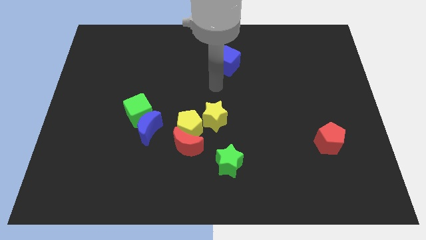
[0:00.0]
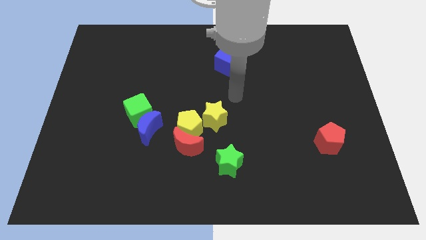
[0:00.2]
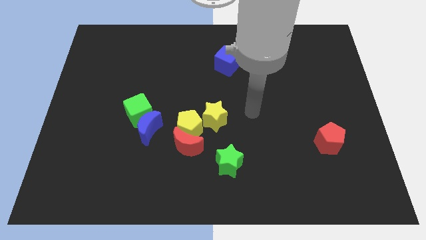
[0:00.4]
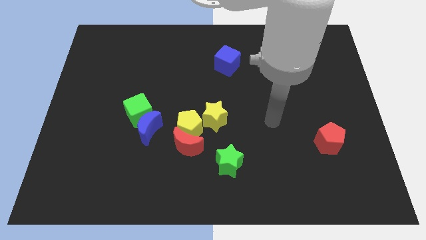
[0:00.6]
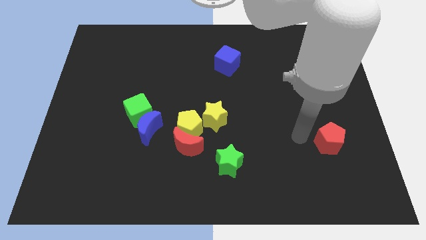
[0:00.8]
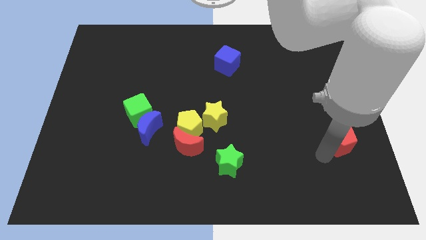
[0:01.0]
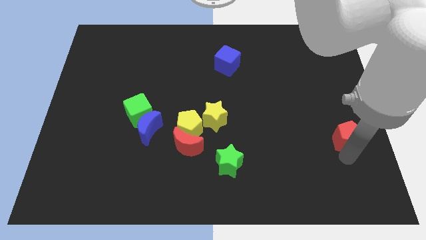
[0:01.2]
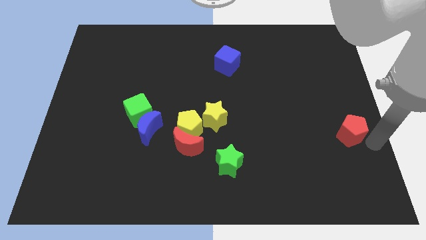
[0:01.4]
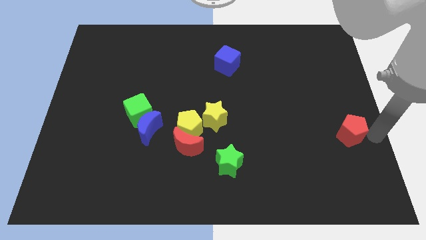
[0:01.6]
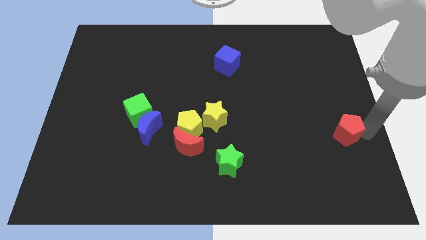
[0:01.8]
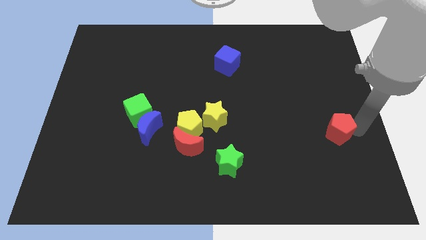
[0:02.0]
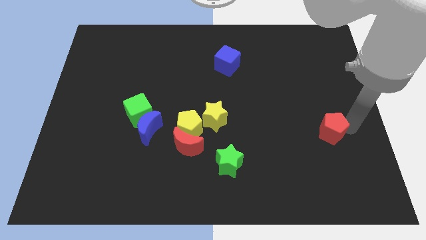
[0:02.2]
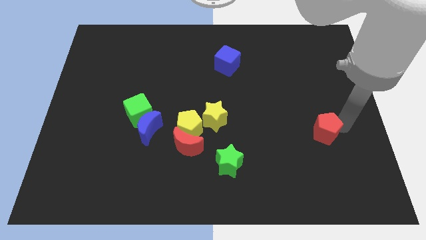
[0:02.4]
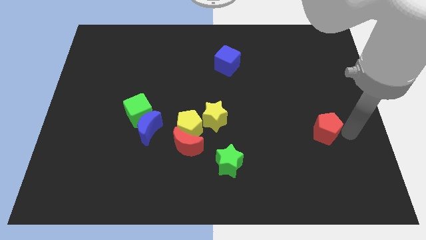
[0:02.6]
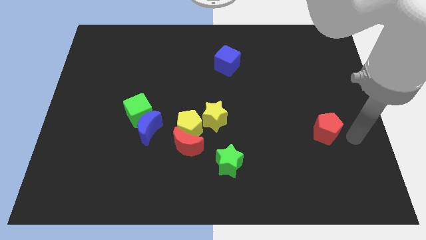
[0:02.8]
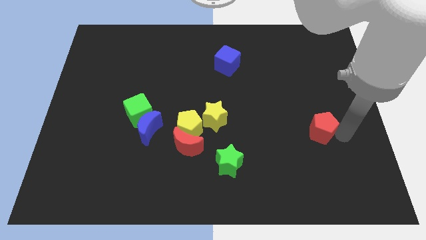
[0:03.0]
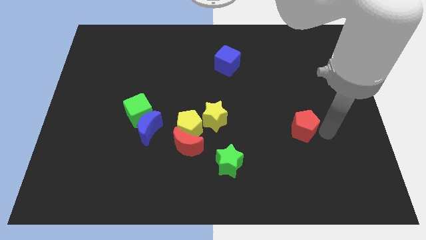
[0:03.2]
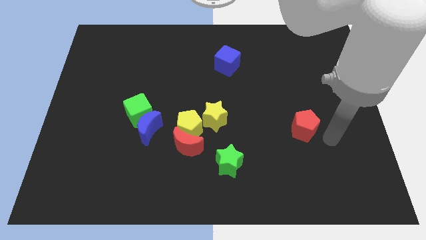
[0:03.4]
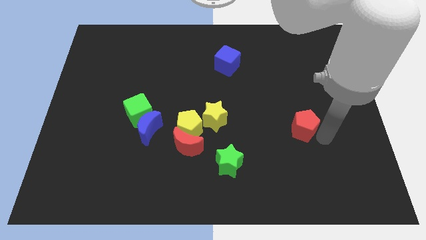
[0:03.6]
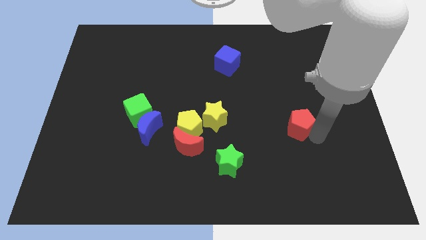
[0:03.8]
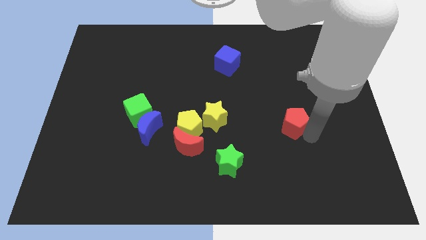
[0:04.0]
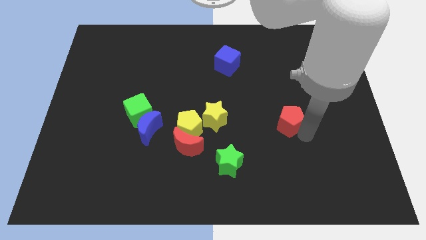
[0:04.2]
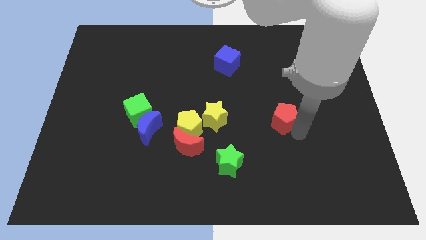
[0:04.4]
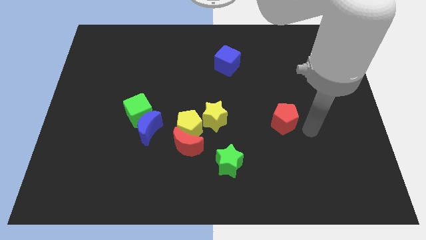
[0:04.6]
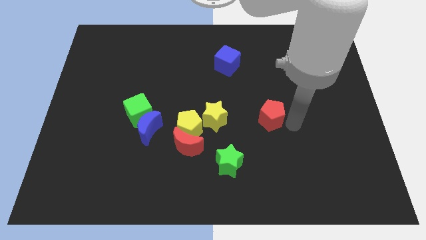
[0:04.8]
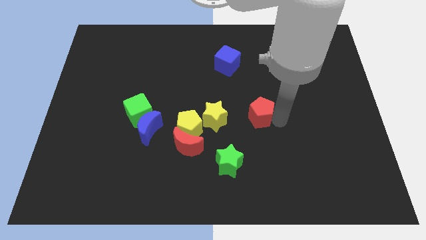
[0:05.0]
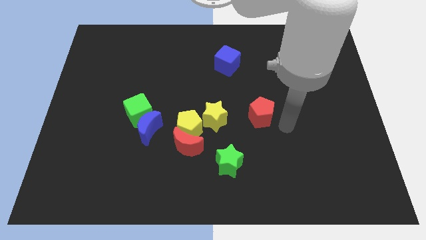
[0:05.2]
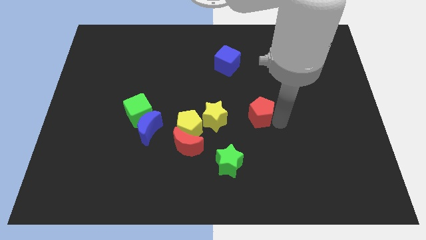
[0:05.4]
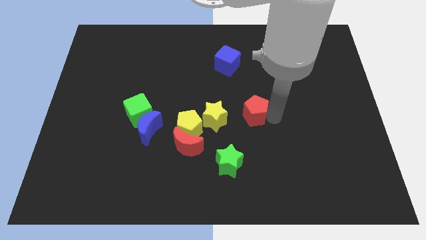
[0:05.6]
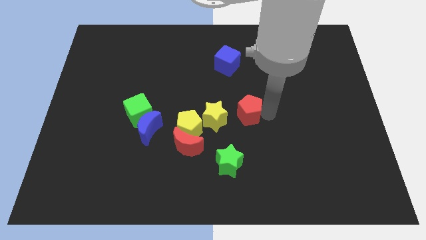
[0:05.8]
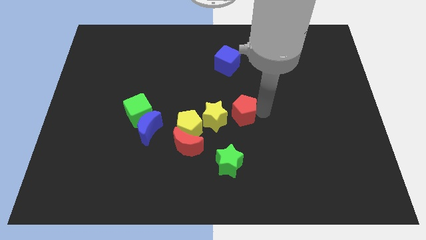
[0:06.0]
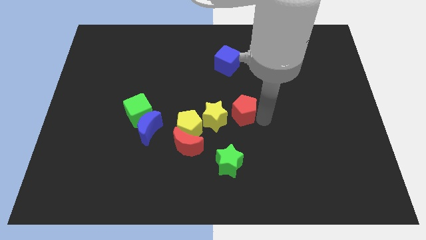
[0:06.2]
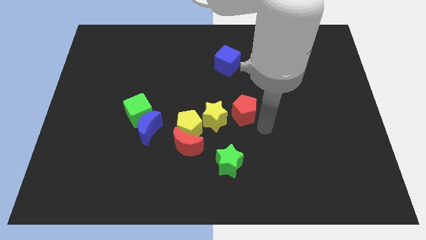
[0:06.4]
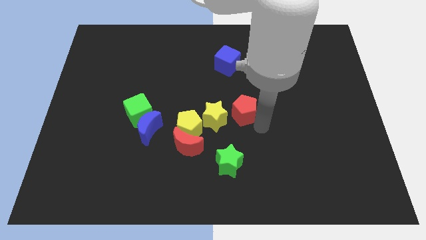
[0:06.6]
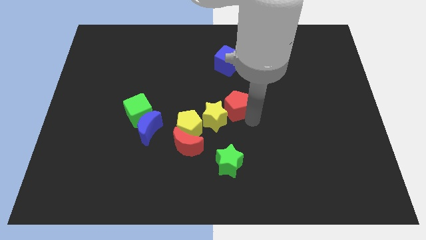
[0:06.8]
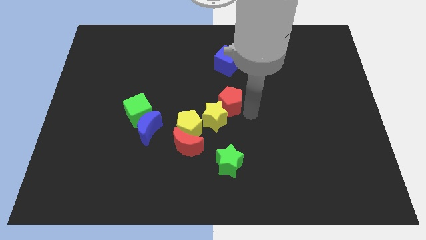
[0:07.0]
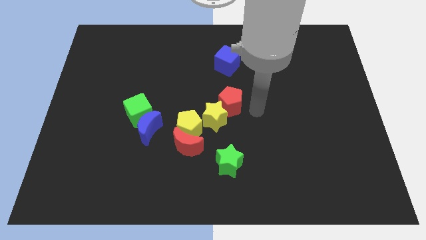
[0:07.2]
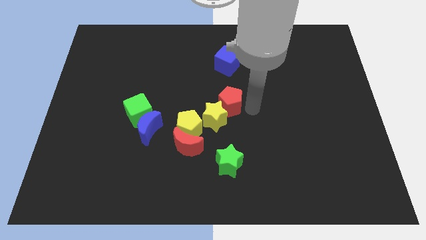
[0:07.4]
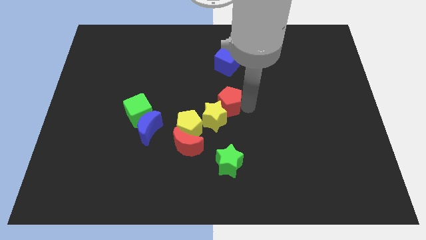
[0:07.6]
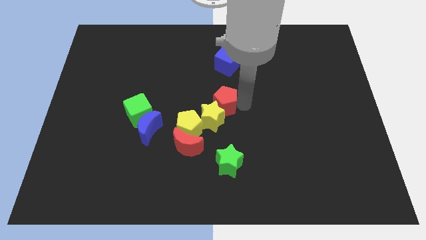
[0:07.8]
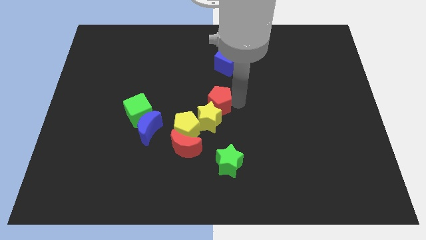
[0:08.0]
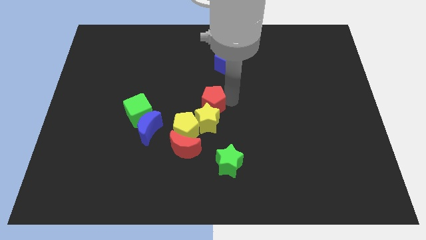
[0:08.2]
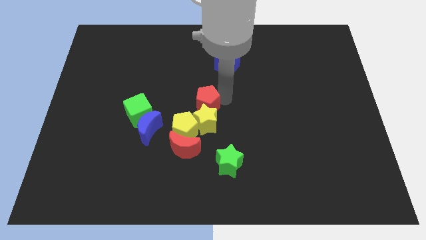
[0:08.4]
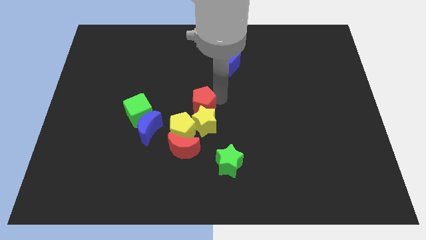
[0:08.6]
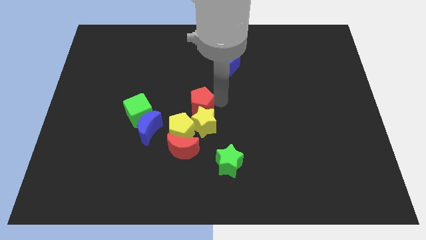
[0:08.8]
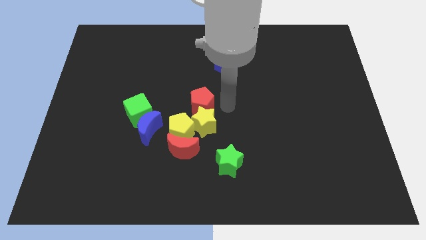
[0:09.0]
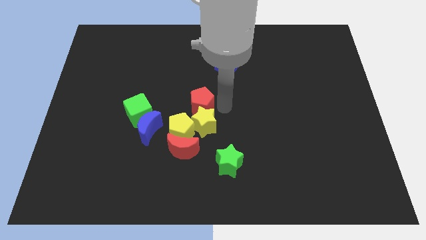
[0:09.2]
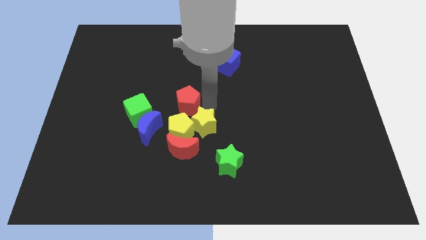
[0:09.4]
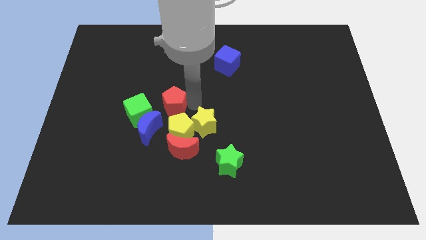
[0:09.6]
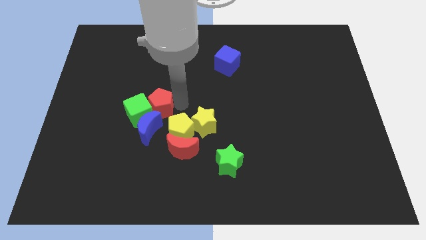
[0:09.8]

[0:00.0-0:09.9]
push the red pentagon towards the green cube

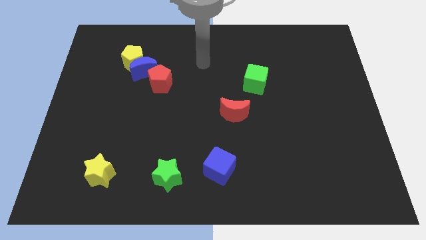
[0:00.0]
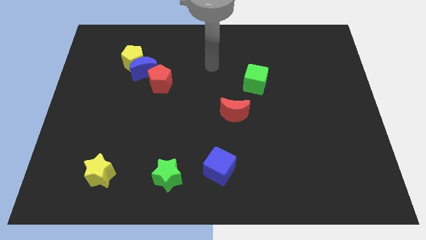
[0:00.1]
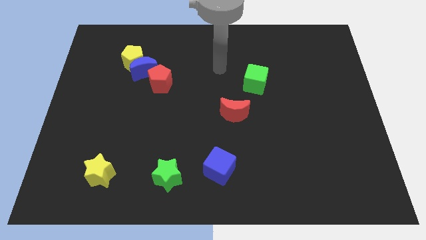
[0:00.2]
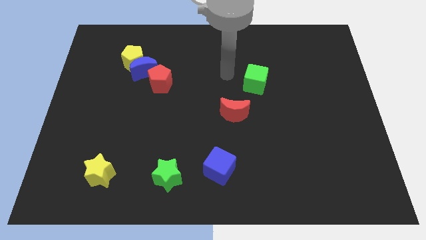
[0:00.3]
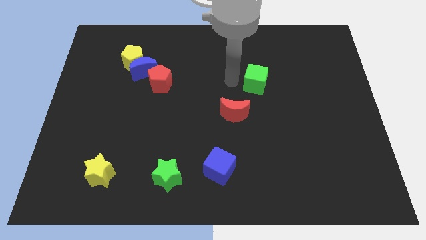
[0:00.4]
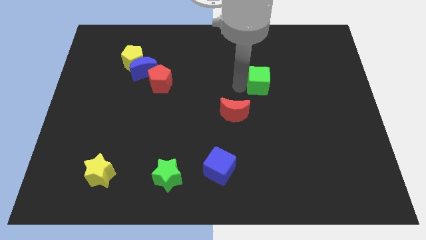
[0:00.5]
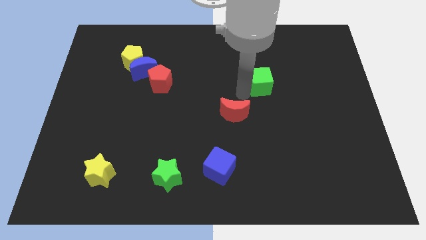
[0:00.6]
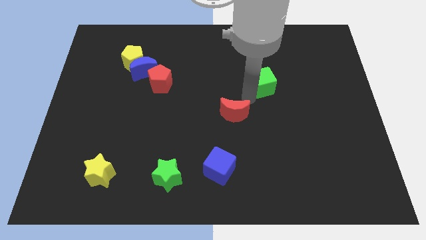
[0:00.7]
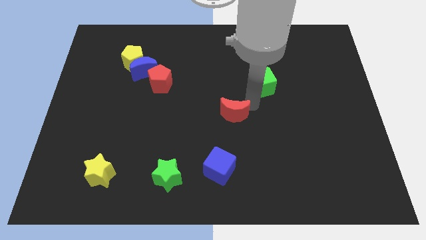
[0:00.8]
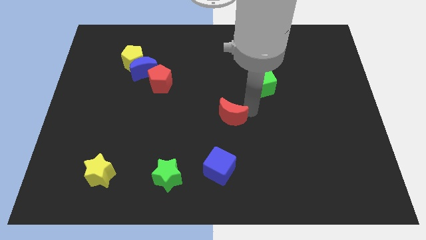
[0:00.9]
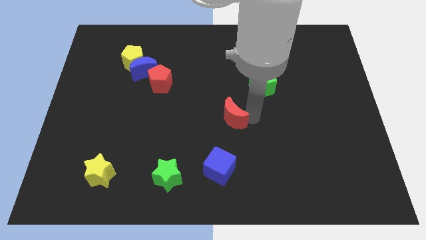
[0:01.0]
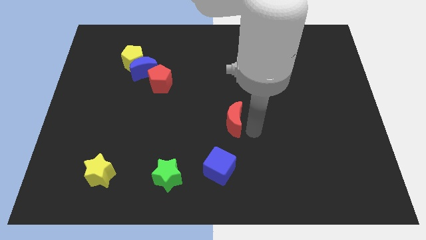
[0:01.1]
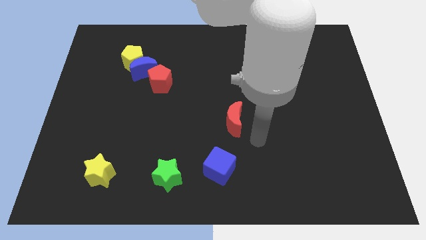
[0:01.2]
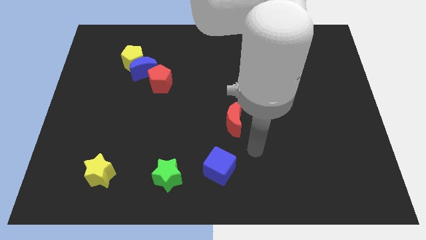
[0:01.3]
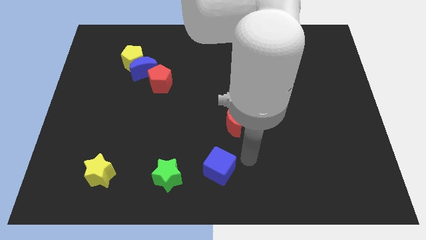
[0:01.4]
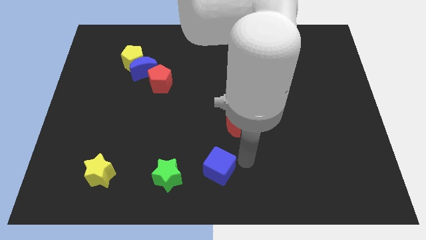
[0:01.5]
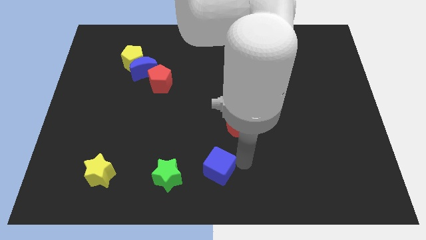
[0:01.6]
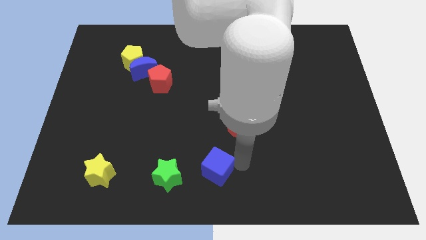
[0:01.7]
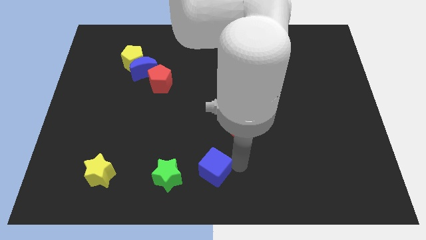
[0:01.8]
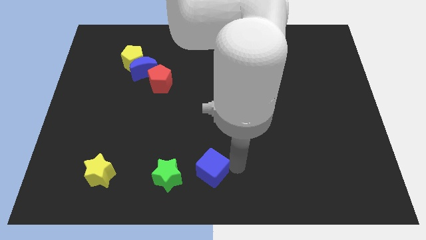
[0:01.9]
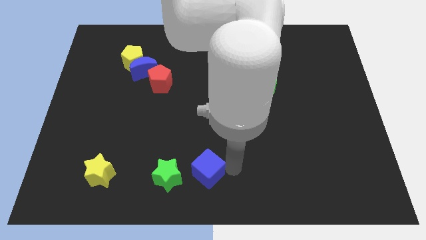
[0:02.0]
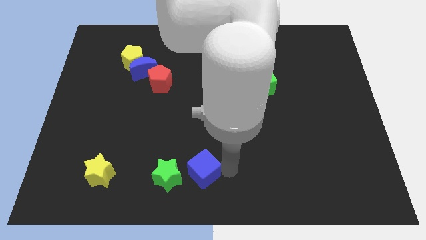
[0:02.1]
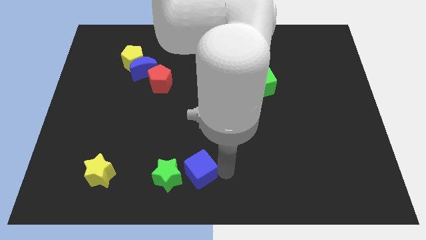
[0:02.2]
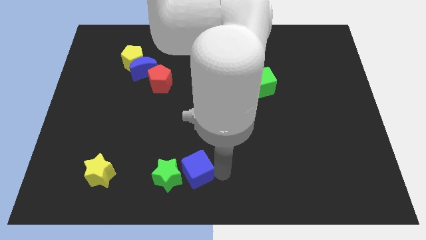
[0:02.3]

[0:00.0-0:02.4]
push the blue cube towards the green star
